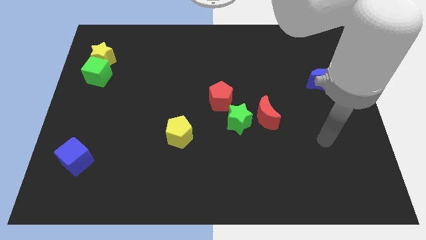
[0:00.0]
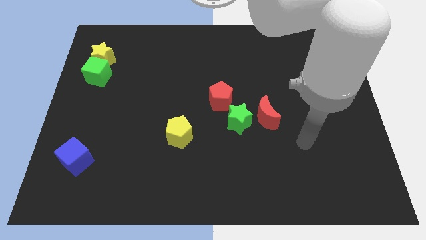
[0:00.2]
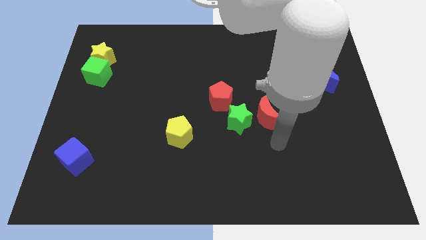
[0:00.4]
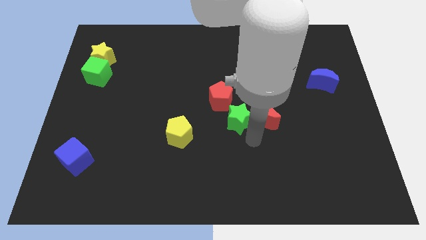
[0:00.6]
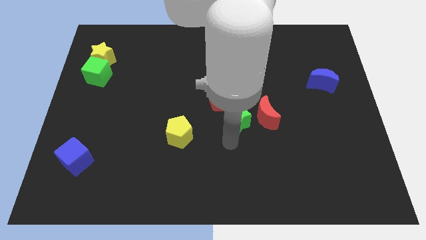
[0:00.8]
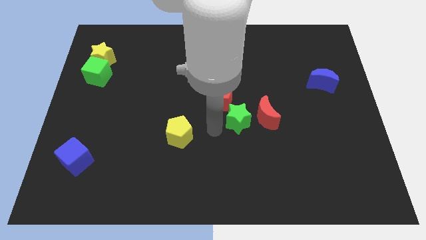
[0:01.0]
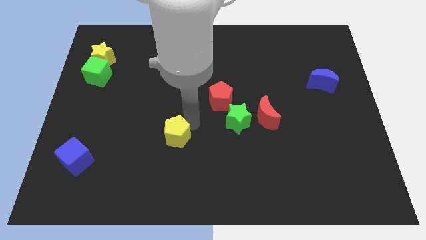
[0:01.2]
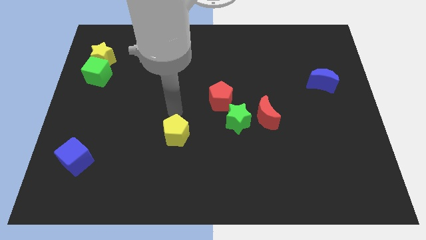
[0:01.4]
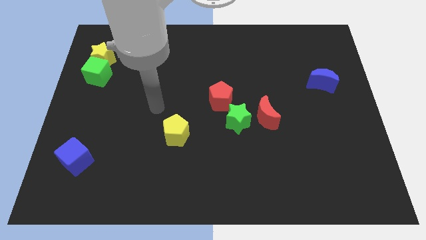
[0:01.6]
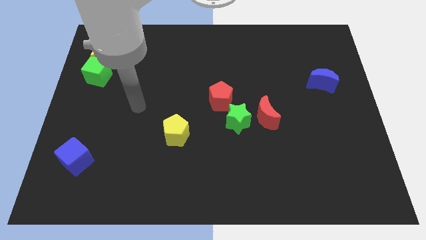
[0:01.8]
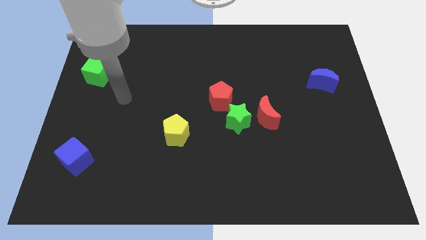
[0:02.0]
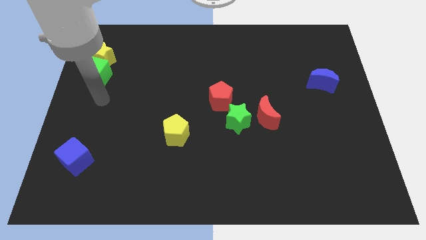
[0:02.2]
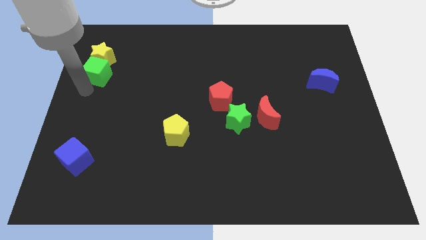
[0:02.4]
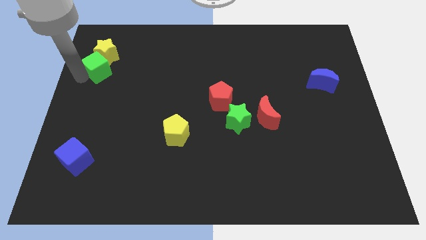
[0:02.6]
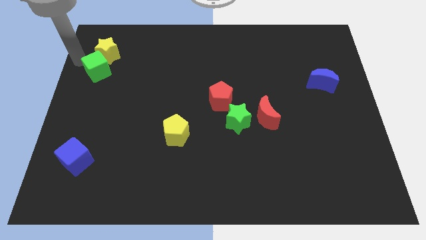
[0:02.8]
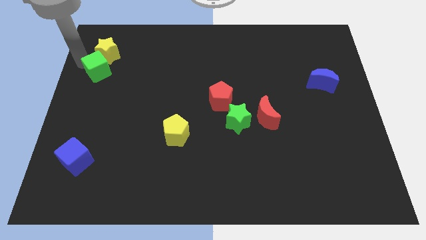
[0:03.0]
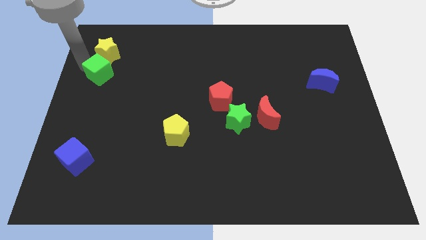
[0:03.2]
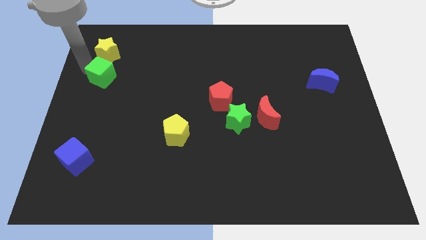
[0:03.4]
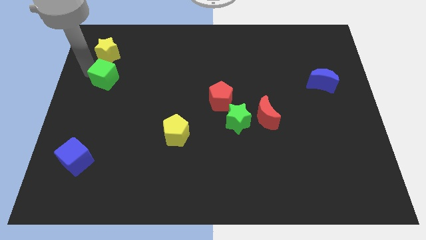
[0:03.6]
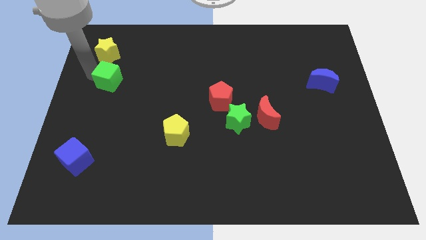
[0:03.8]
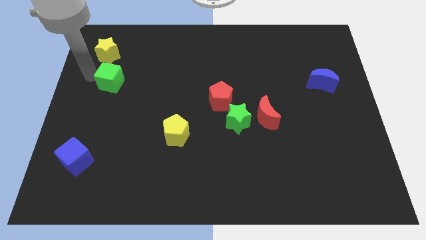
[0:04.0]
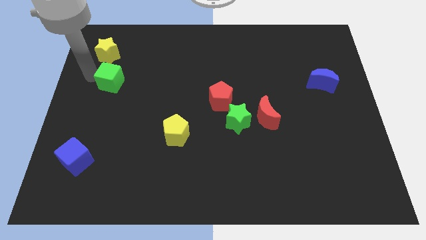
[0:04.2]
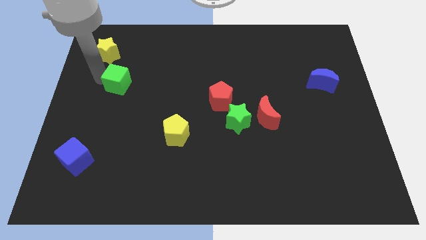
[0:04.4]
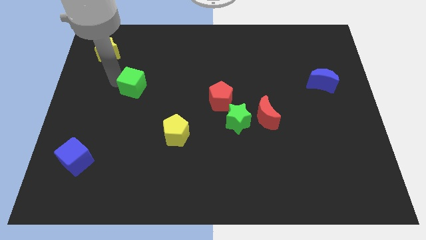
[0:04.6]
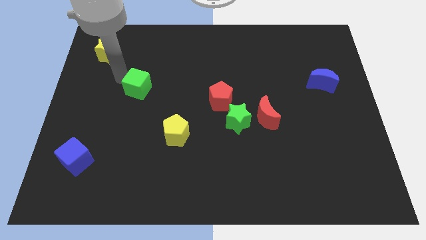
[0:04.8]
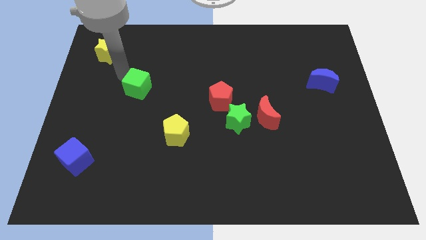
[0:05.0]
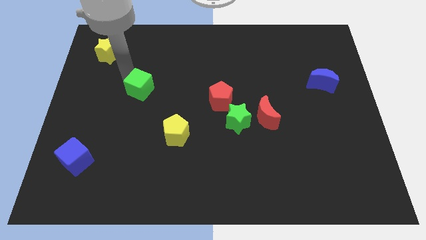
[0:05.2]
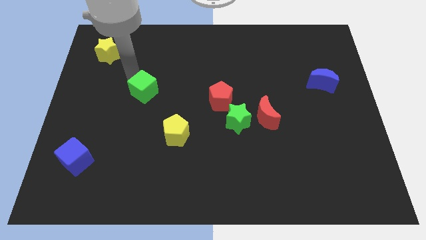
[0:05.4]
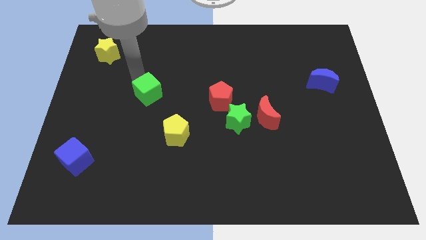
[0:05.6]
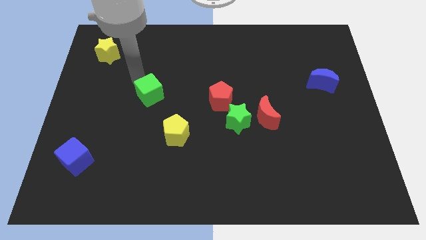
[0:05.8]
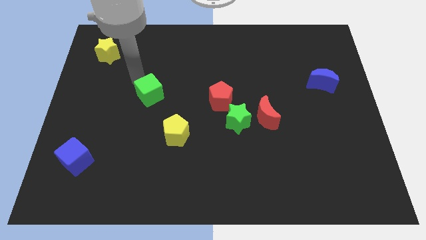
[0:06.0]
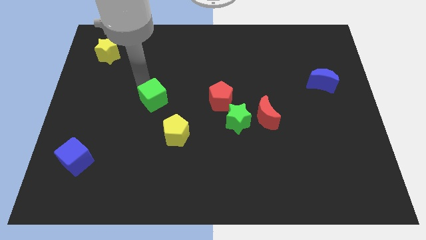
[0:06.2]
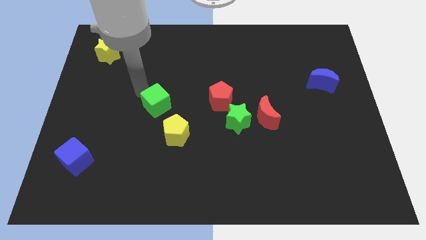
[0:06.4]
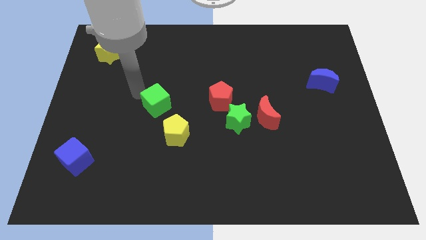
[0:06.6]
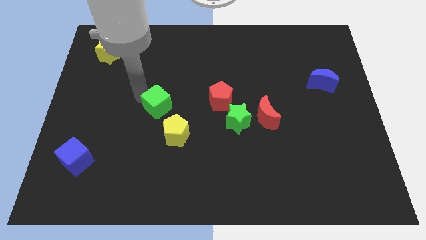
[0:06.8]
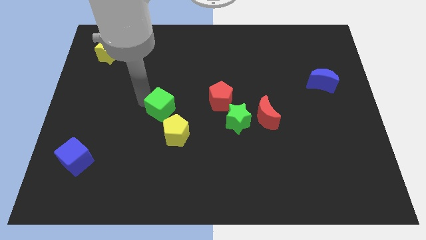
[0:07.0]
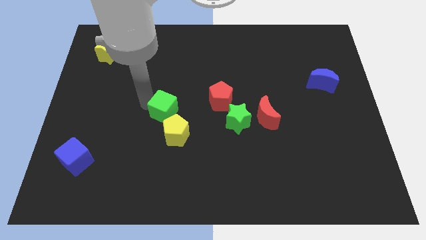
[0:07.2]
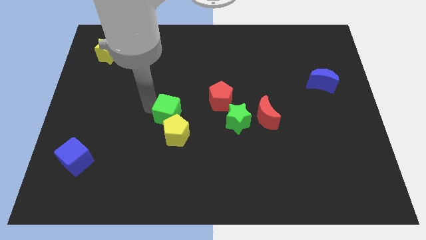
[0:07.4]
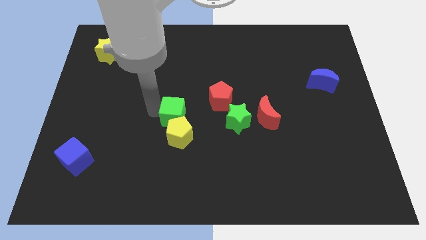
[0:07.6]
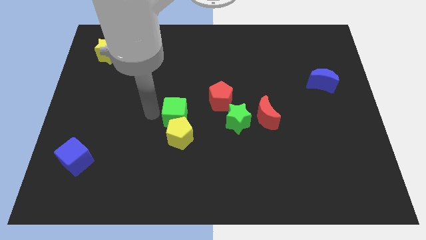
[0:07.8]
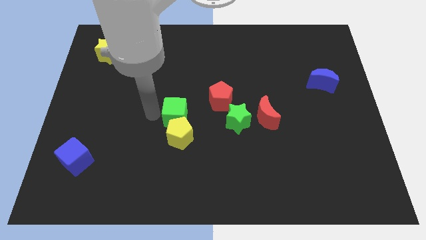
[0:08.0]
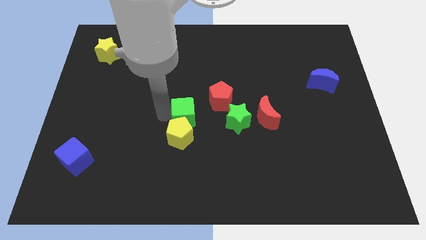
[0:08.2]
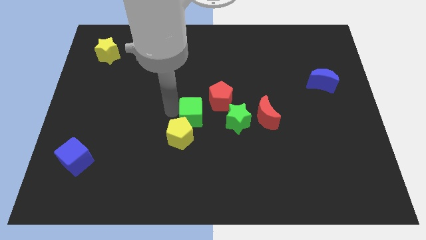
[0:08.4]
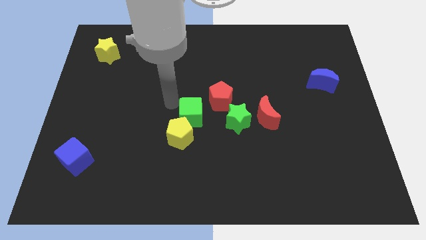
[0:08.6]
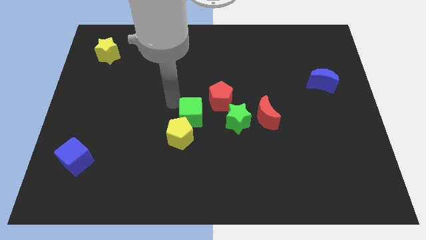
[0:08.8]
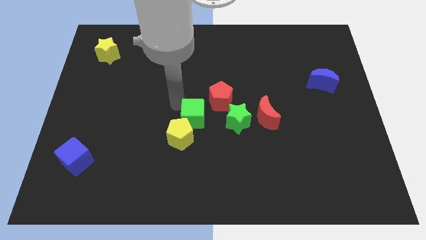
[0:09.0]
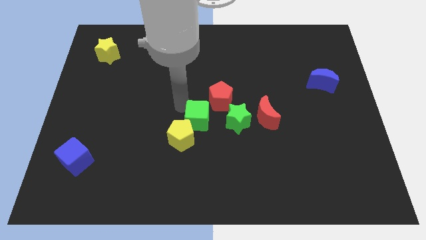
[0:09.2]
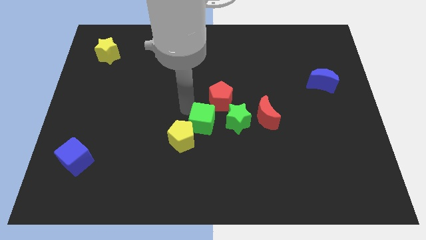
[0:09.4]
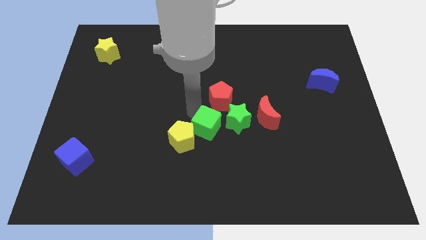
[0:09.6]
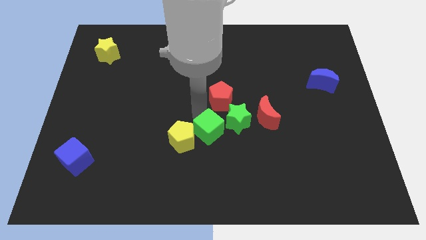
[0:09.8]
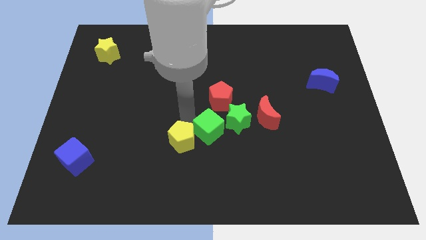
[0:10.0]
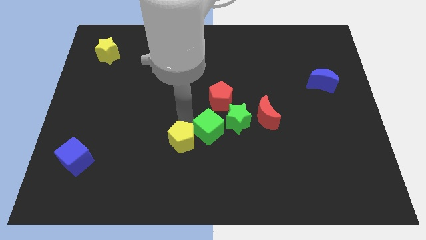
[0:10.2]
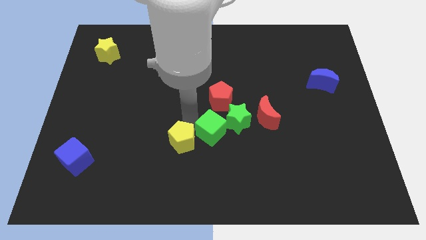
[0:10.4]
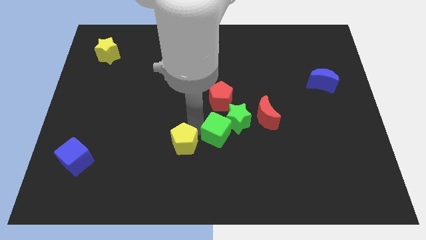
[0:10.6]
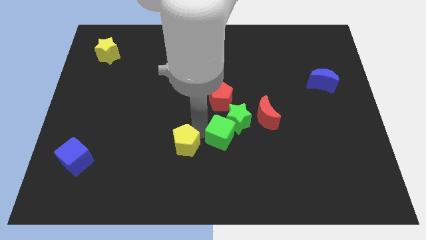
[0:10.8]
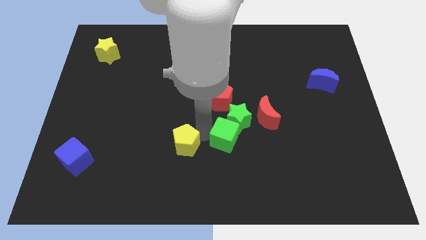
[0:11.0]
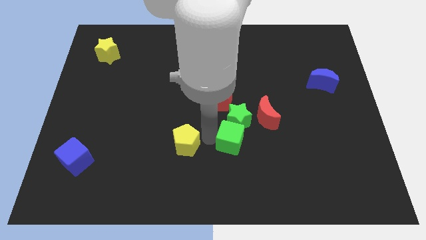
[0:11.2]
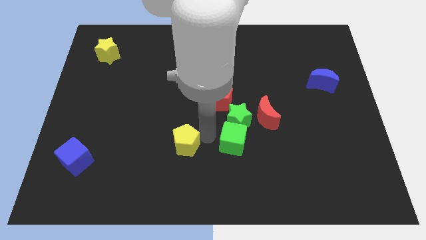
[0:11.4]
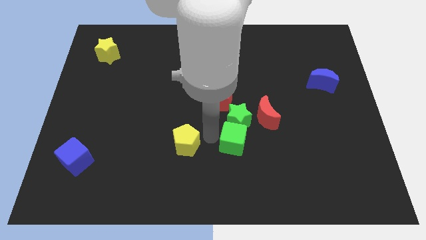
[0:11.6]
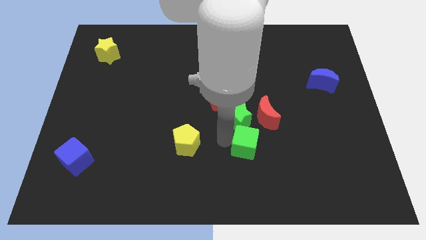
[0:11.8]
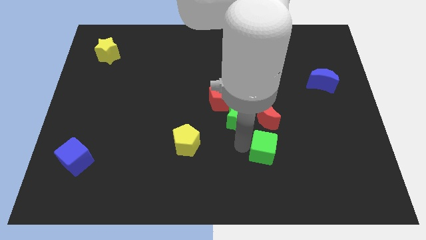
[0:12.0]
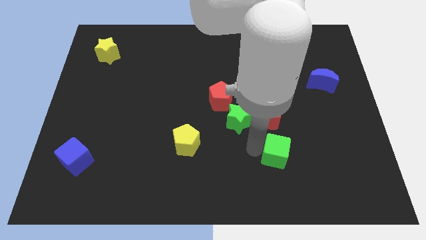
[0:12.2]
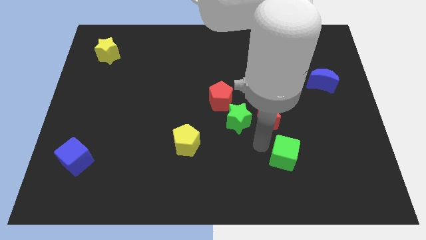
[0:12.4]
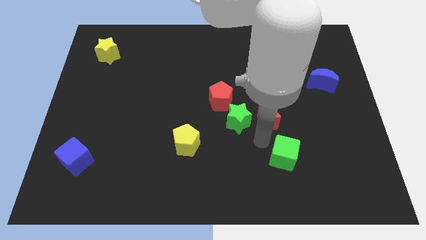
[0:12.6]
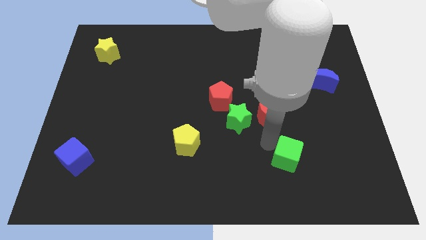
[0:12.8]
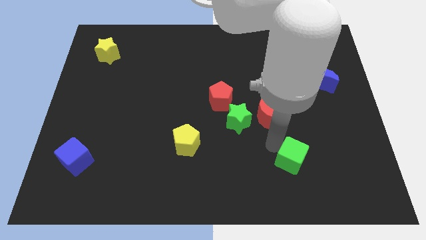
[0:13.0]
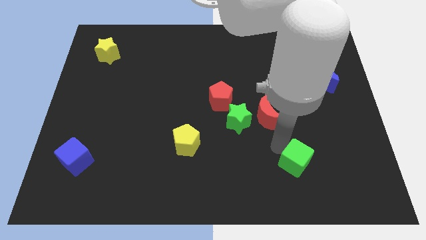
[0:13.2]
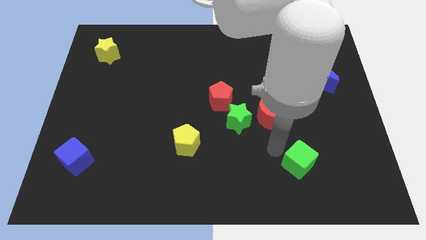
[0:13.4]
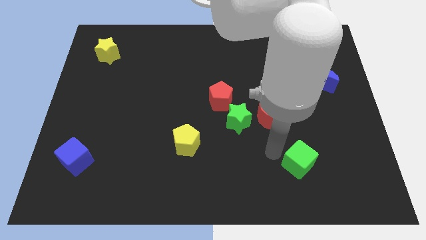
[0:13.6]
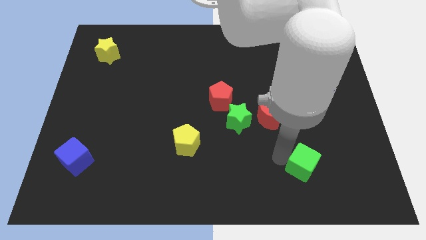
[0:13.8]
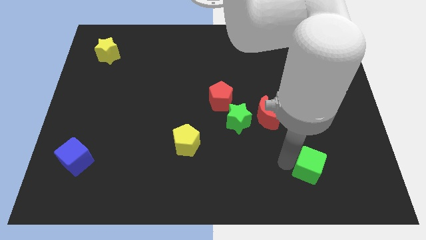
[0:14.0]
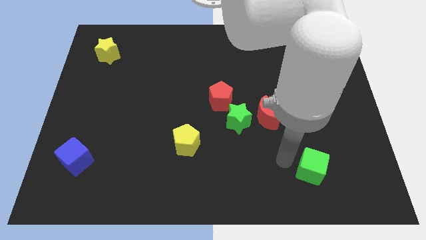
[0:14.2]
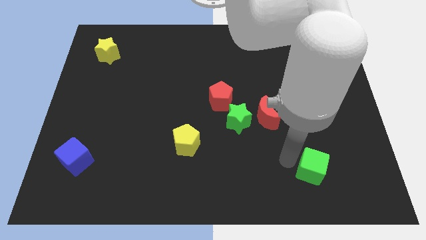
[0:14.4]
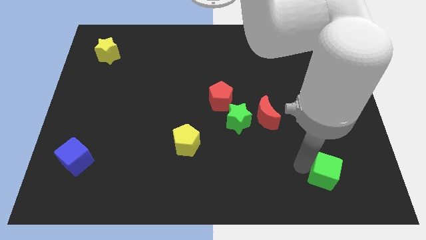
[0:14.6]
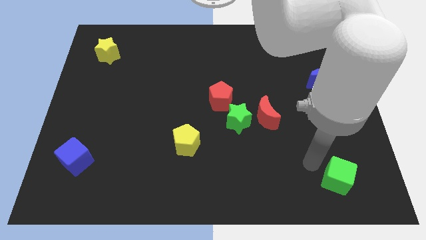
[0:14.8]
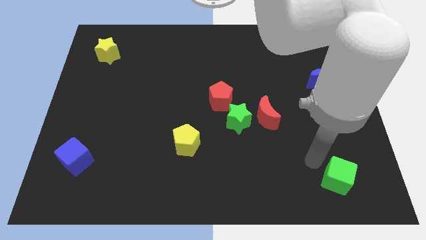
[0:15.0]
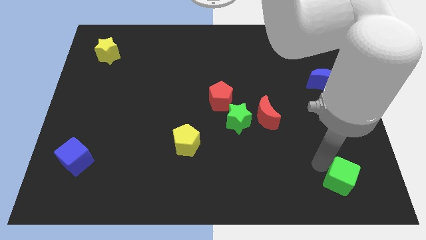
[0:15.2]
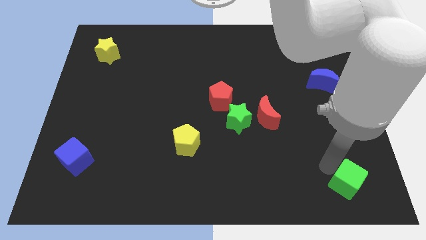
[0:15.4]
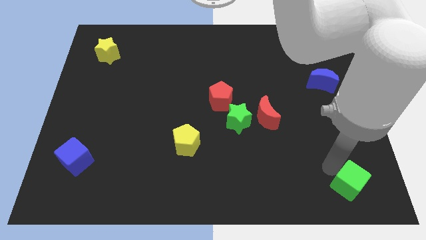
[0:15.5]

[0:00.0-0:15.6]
slide the green cube to the bottom right
